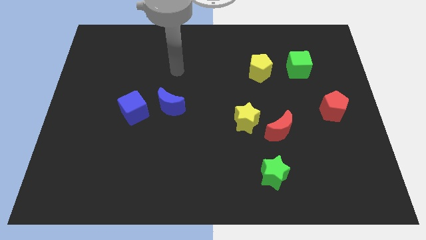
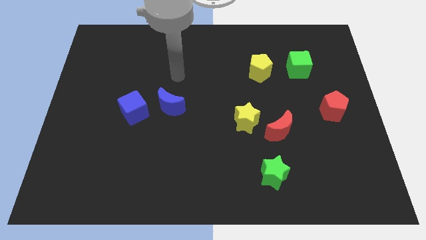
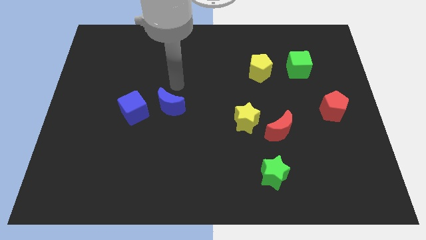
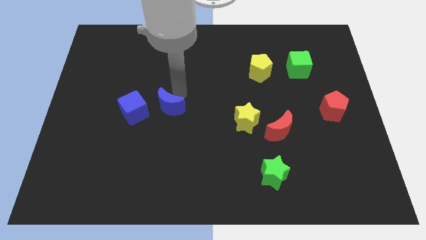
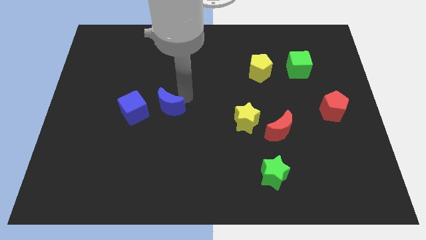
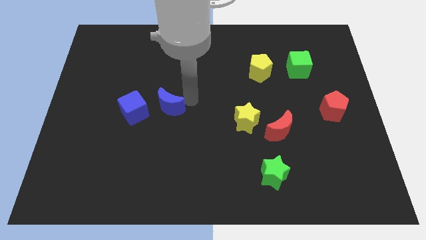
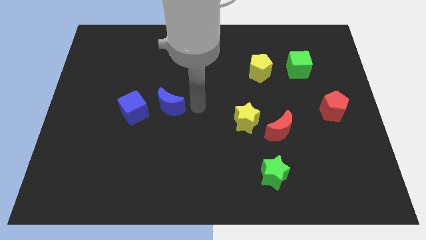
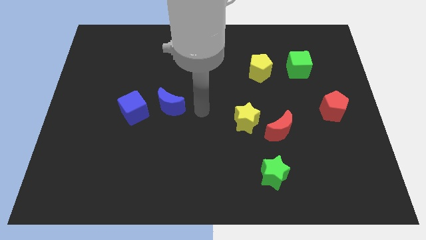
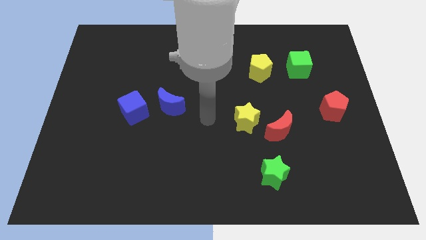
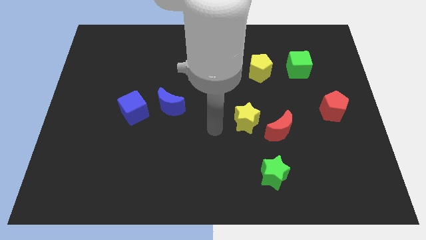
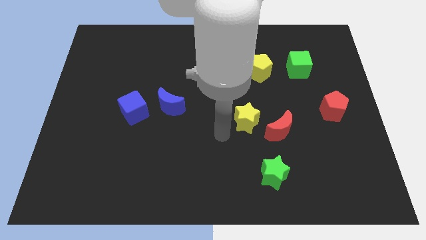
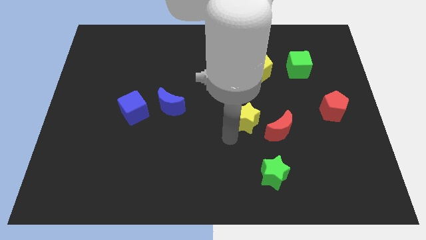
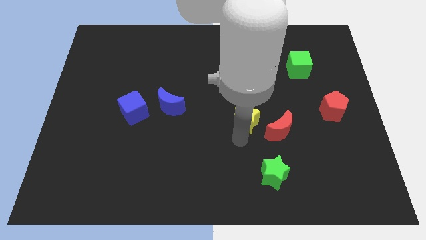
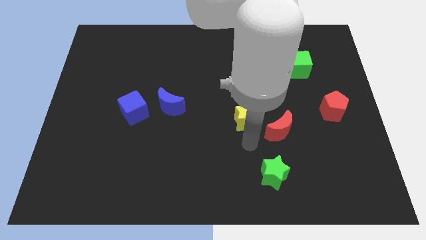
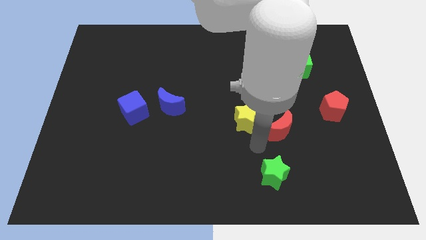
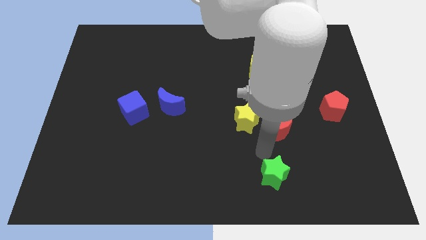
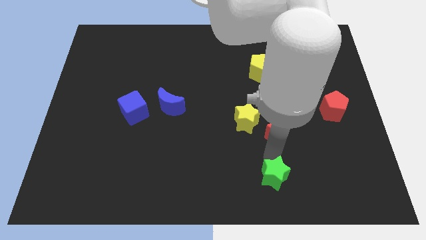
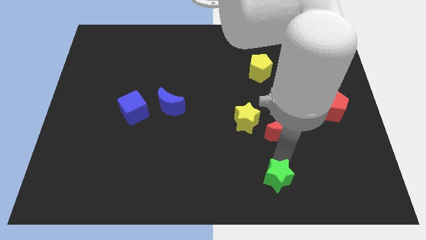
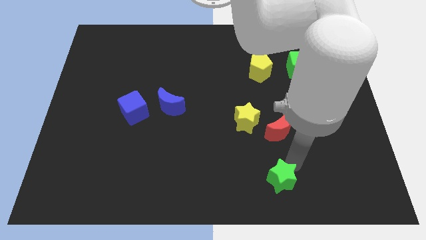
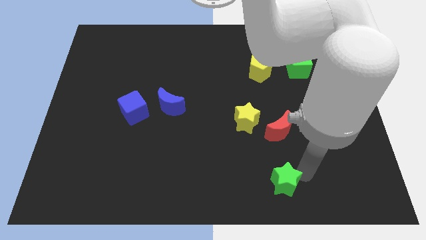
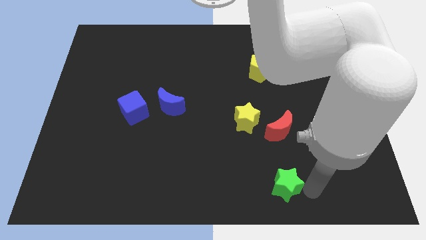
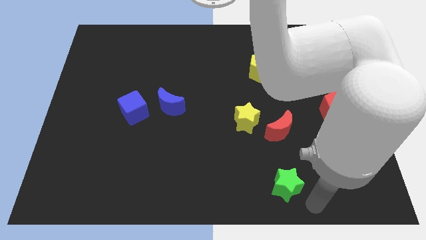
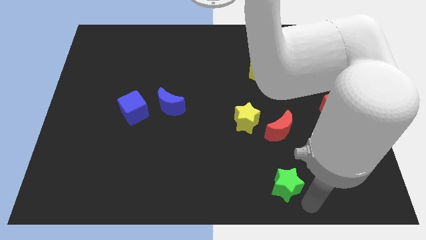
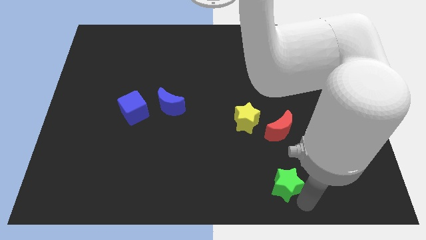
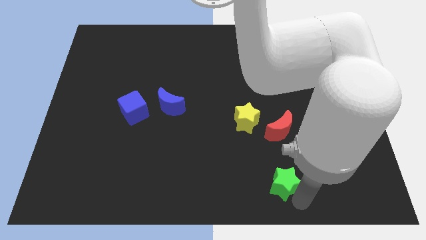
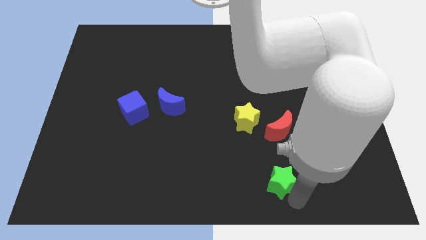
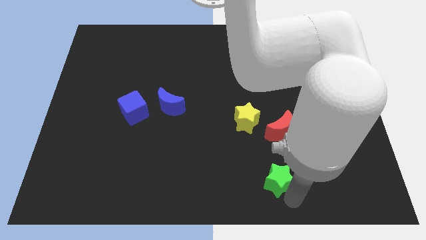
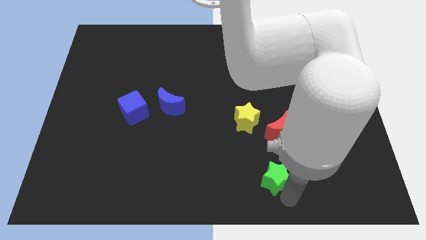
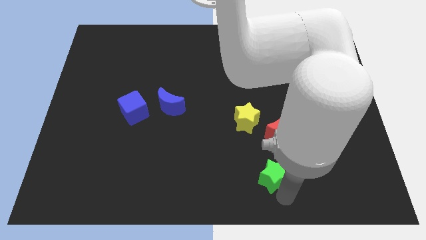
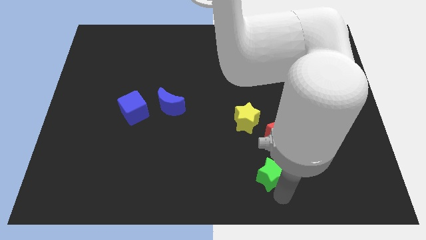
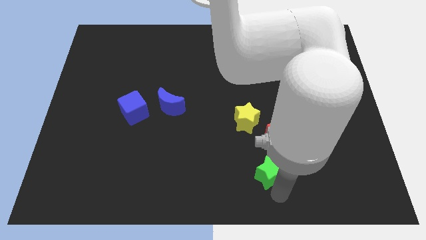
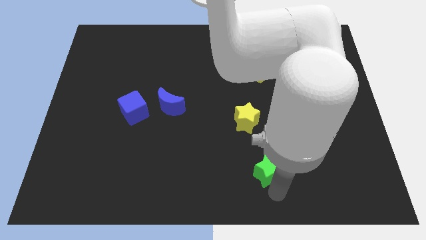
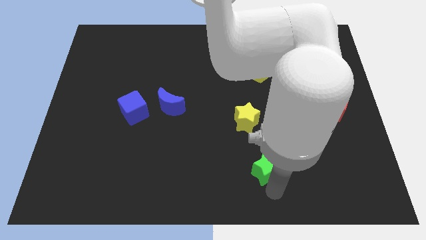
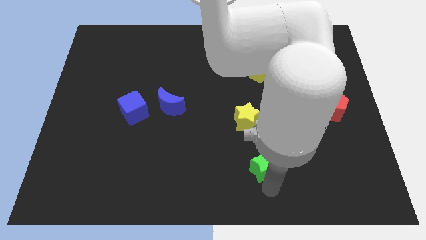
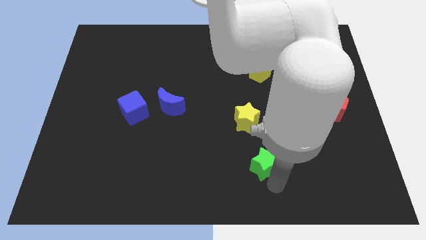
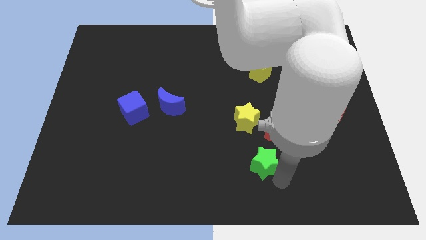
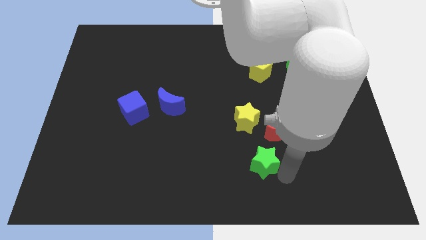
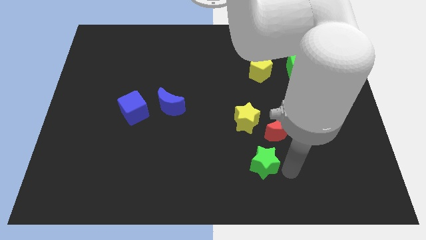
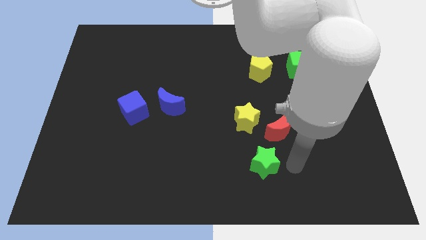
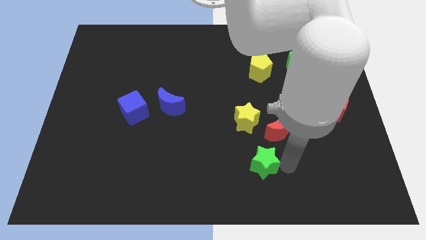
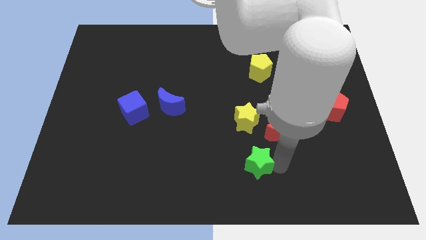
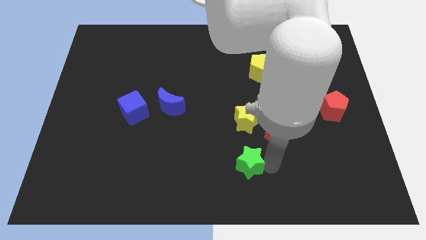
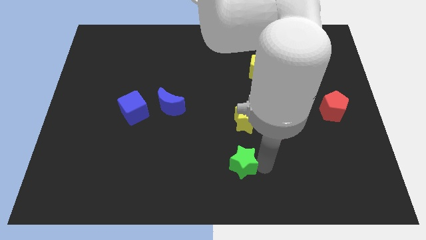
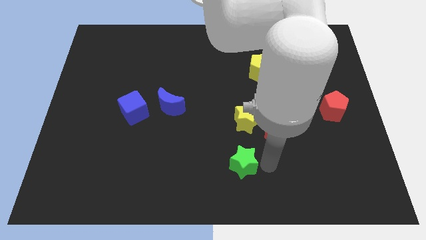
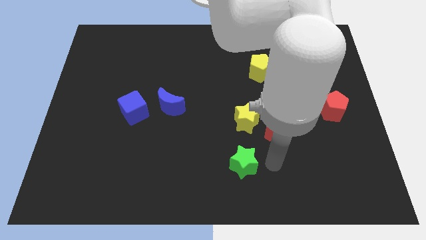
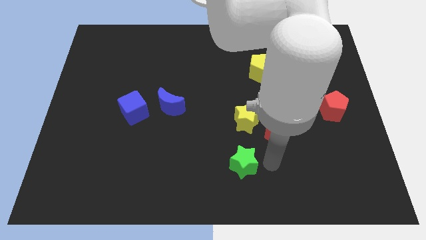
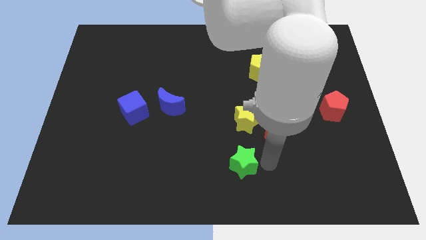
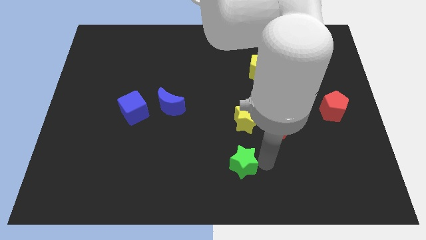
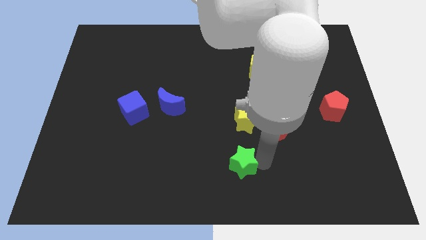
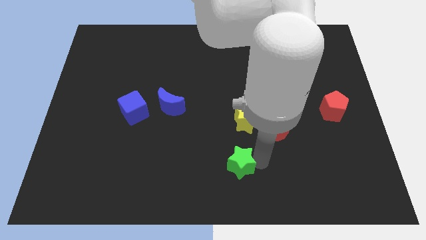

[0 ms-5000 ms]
slightly push the green star to the left

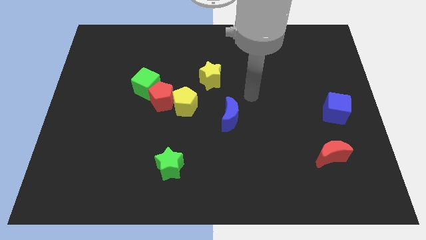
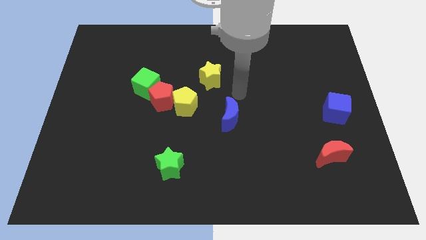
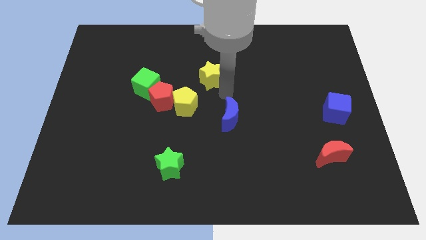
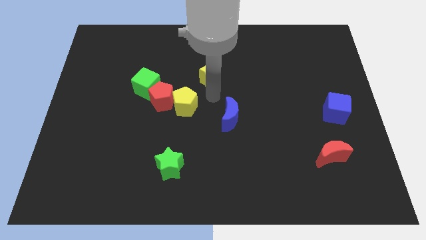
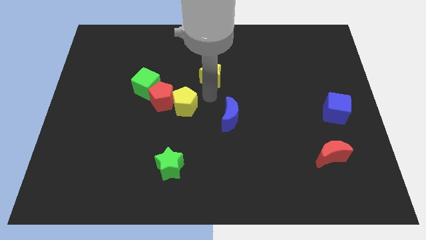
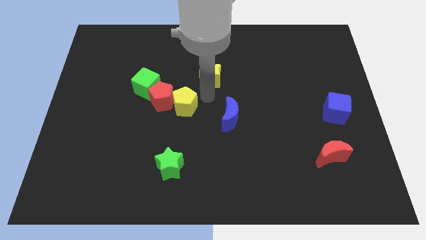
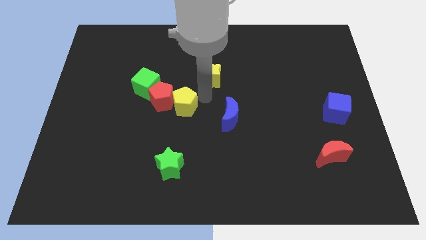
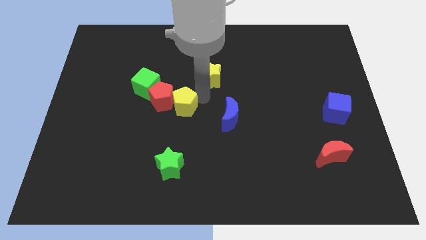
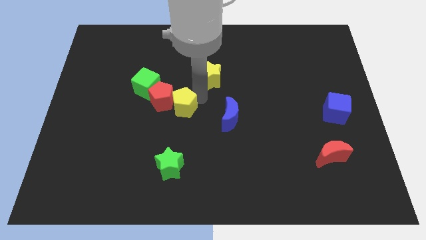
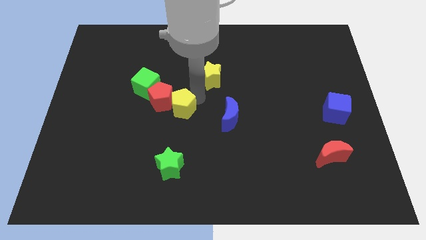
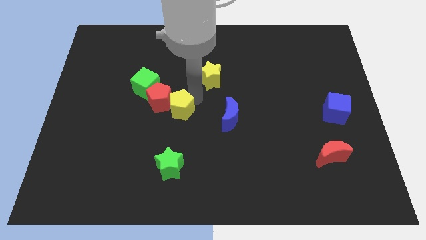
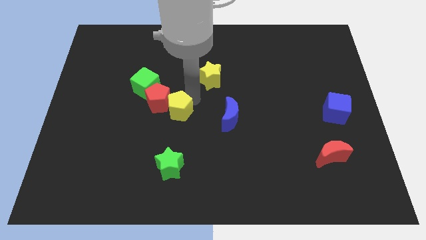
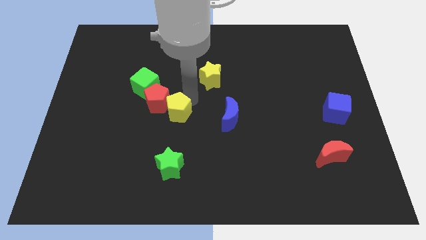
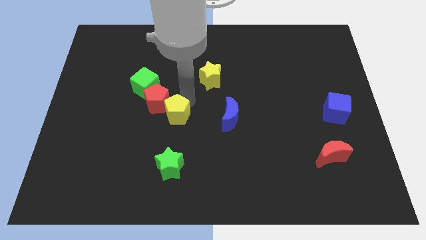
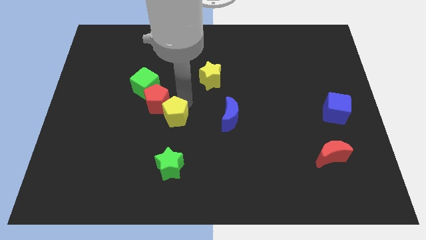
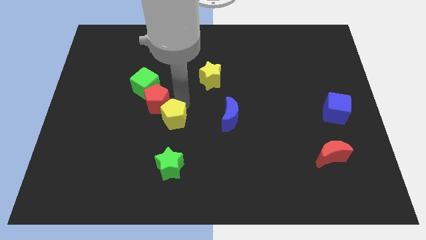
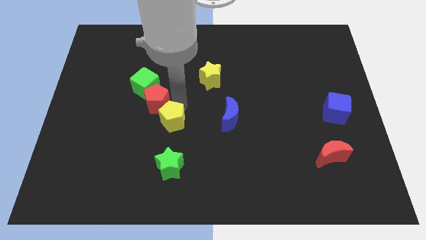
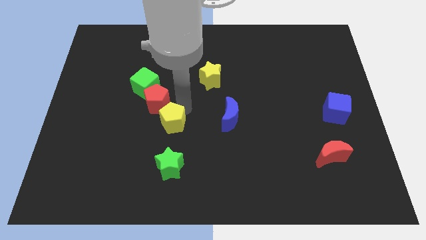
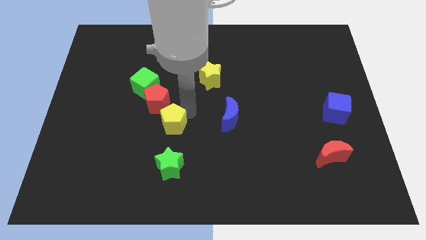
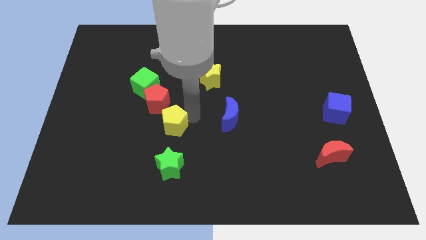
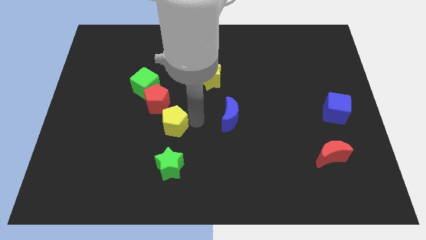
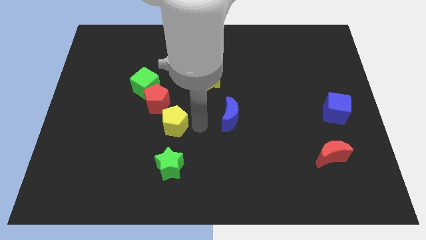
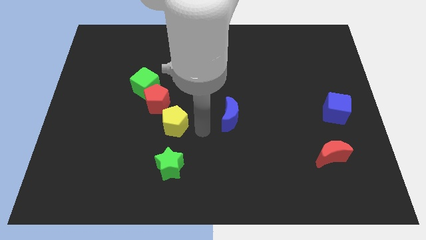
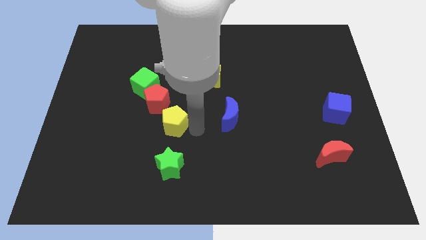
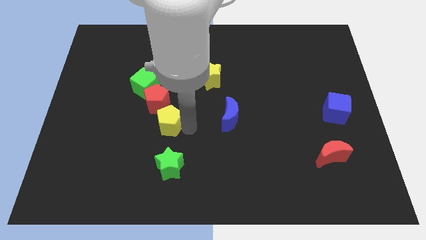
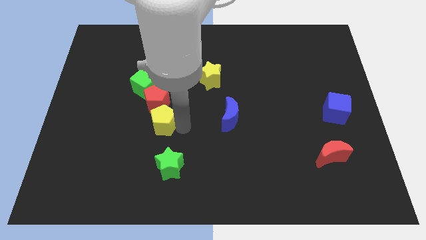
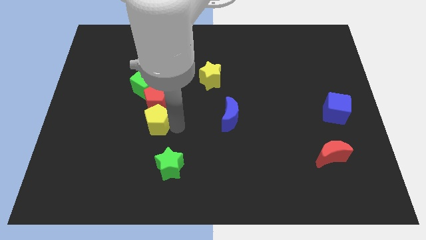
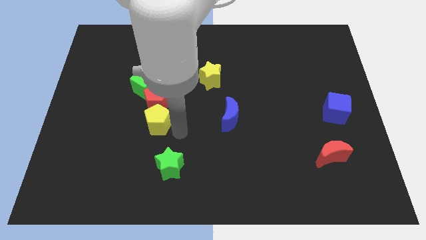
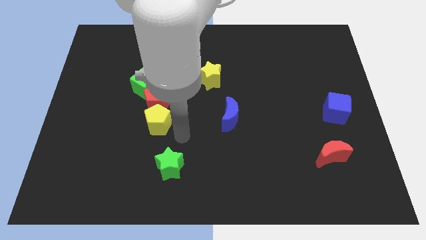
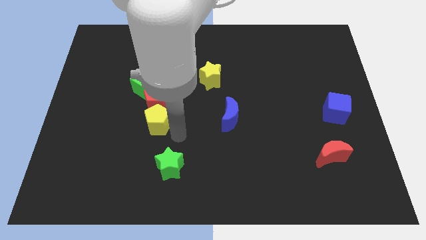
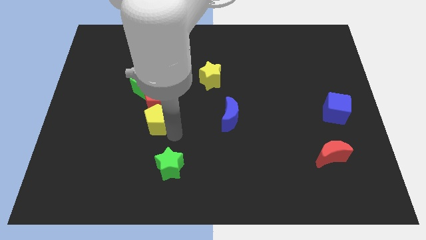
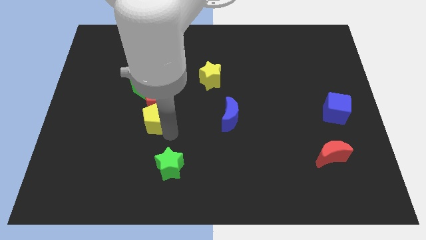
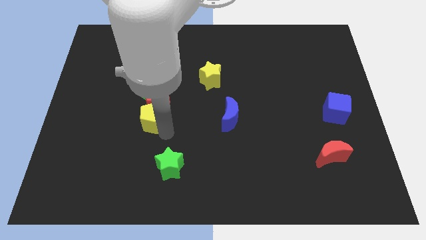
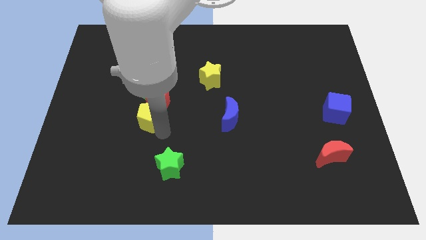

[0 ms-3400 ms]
move the yellow pentagon slightly left

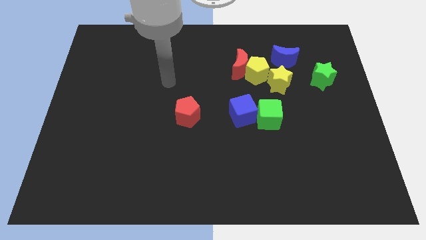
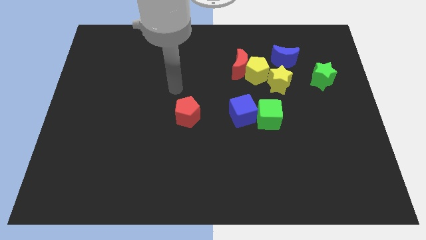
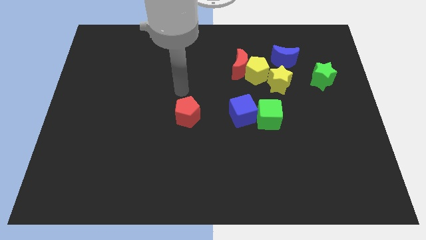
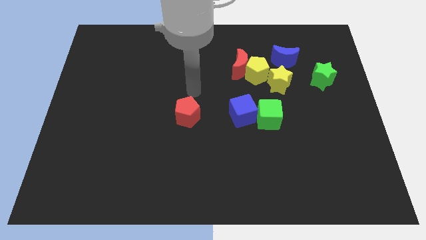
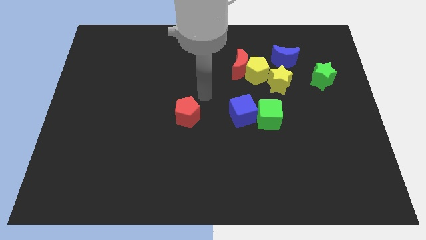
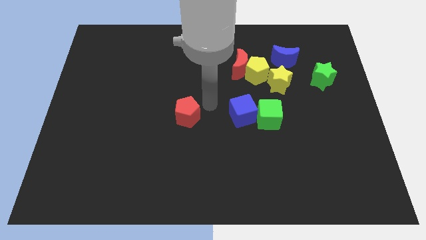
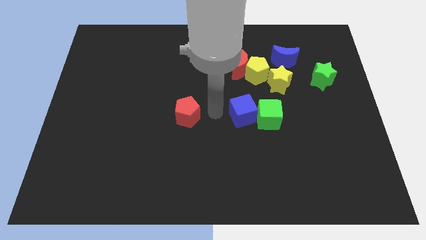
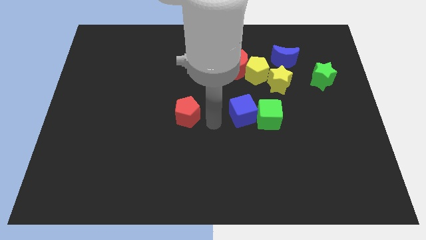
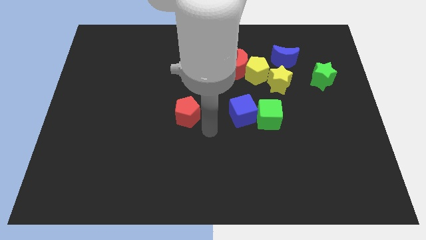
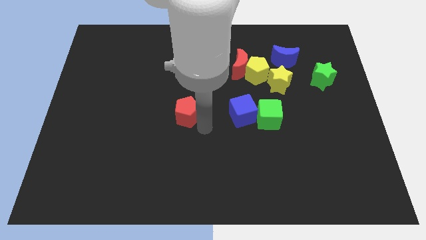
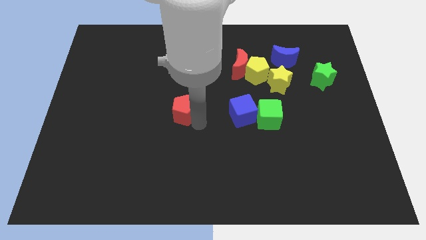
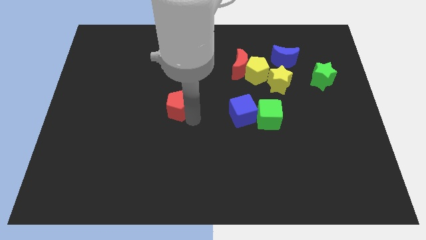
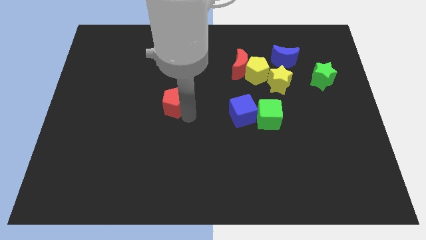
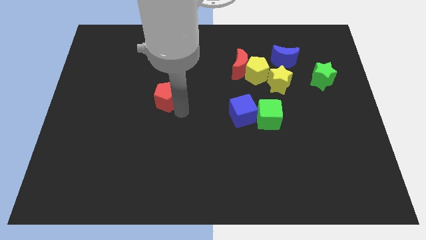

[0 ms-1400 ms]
push the red pentagon somewhat up and then to the left
